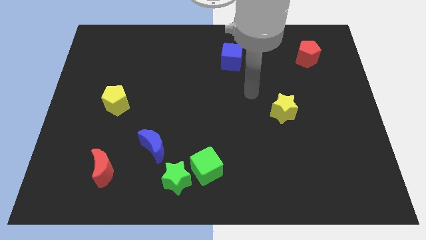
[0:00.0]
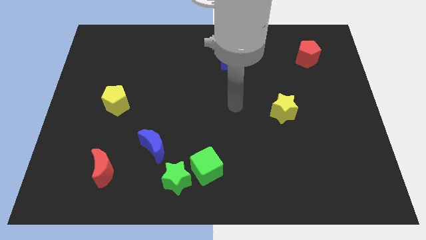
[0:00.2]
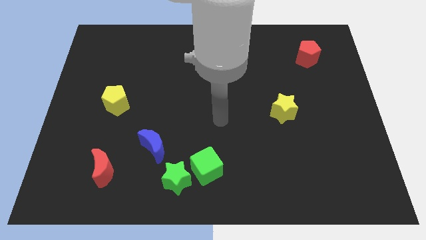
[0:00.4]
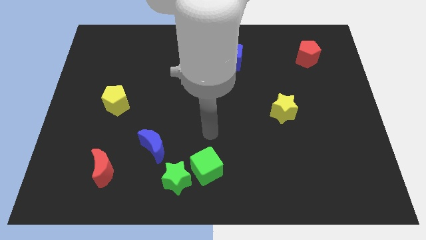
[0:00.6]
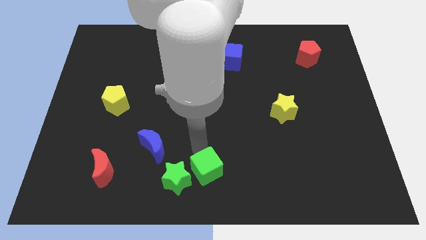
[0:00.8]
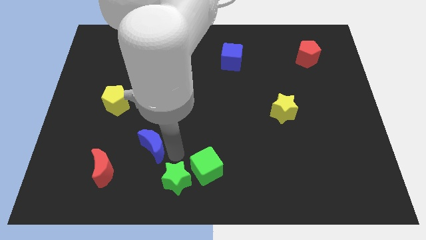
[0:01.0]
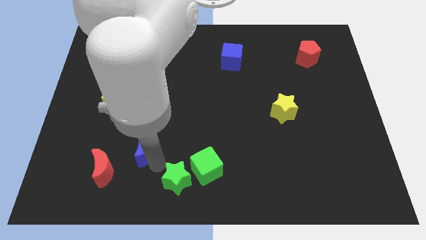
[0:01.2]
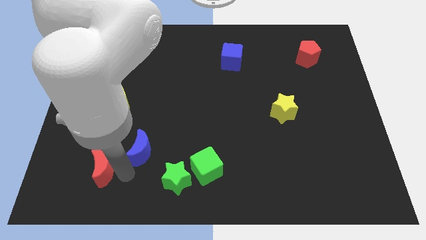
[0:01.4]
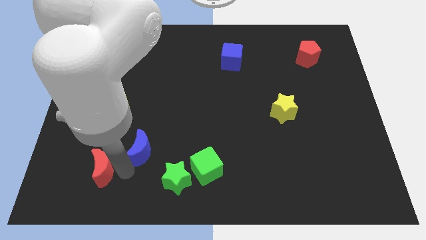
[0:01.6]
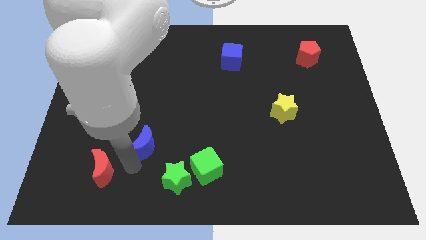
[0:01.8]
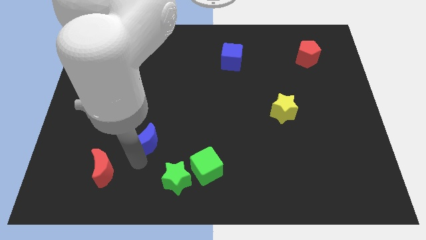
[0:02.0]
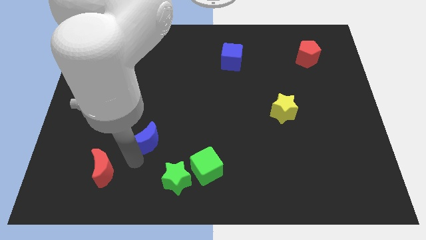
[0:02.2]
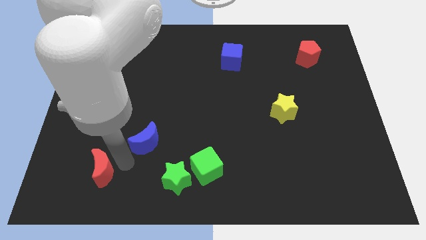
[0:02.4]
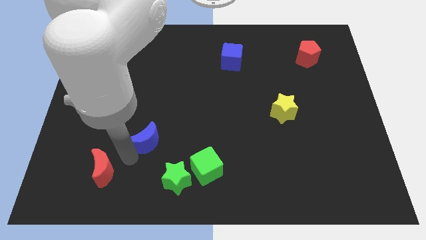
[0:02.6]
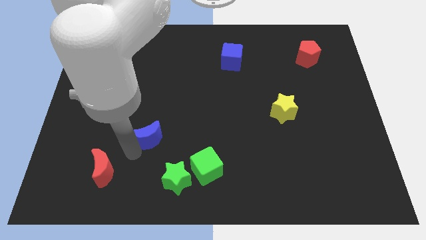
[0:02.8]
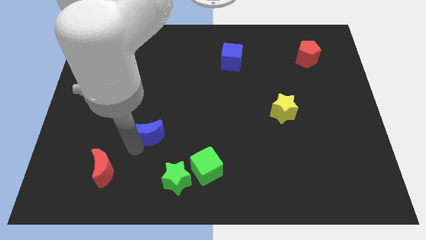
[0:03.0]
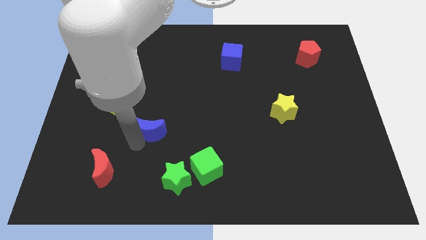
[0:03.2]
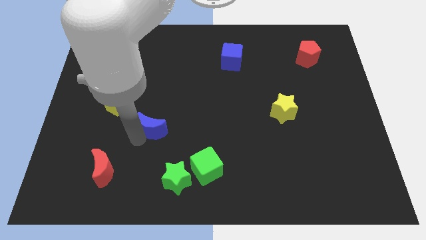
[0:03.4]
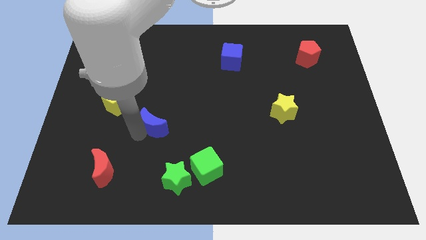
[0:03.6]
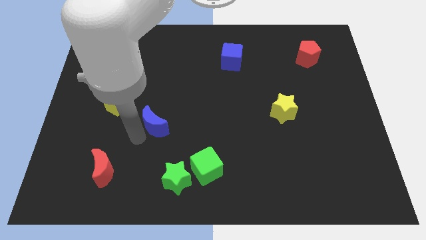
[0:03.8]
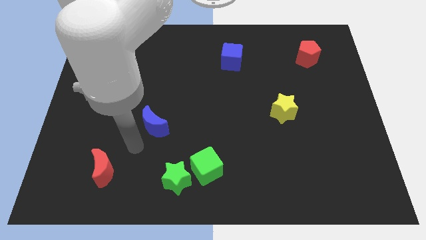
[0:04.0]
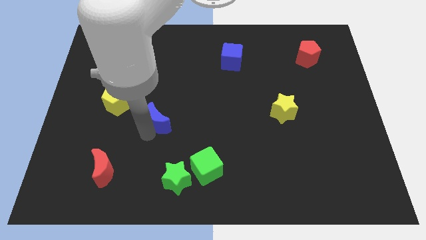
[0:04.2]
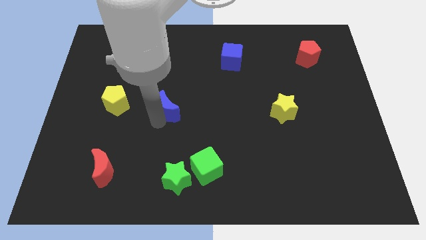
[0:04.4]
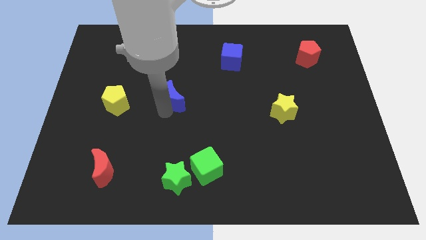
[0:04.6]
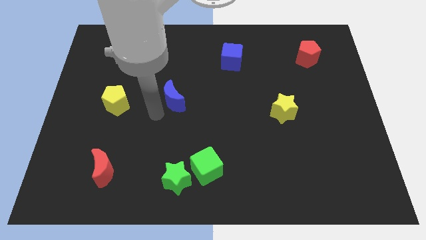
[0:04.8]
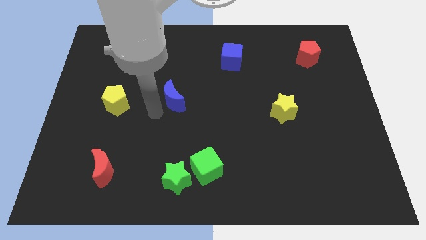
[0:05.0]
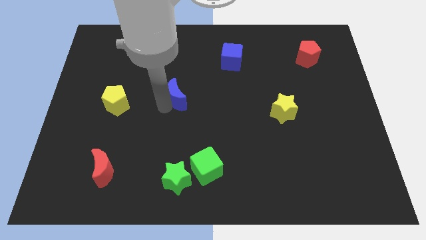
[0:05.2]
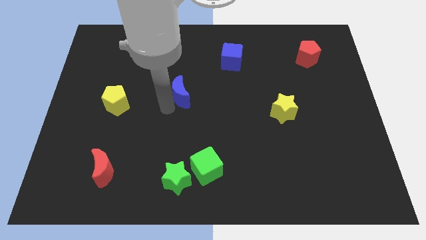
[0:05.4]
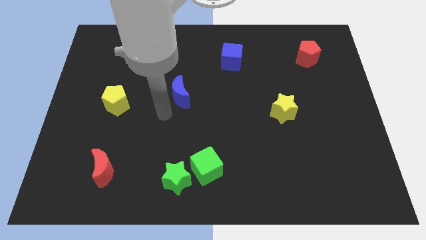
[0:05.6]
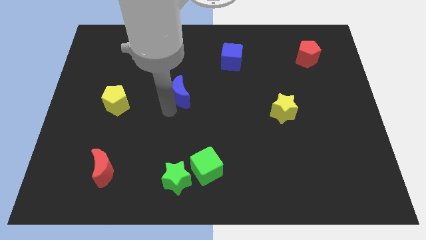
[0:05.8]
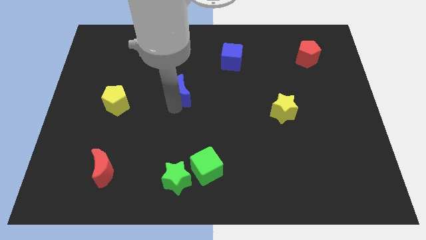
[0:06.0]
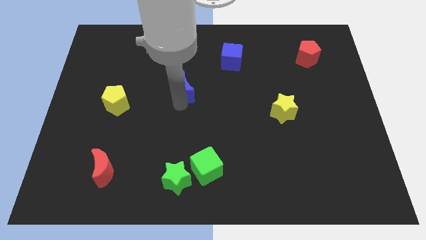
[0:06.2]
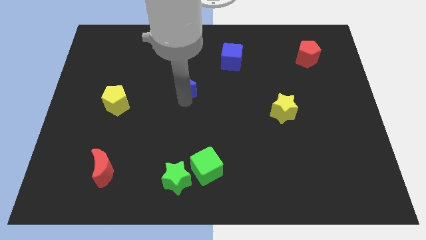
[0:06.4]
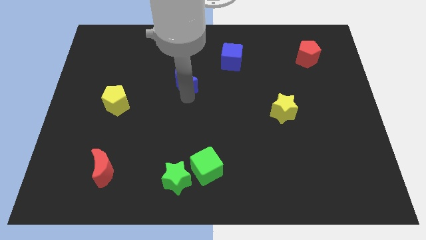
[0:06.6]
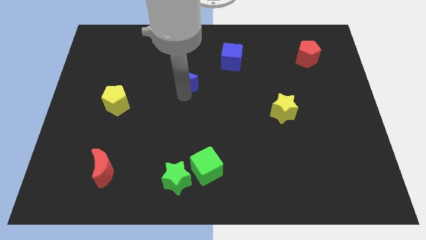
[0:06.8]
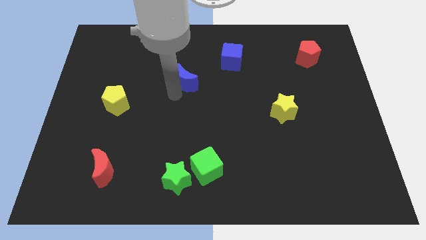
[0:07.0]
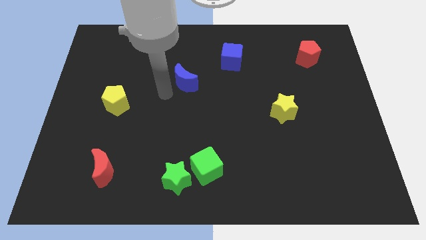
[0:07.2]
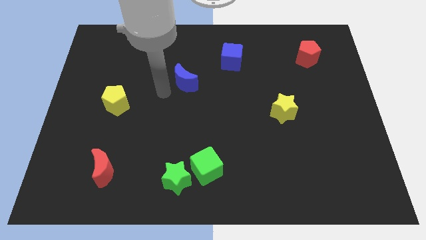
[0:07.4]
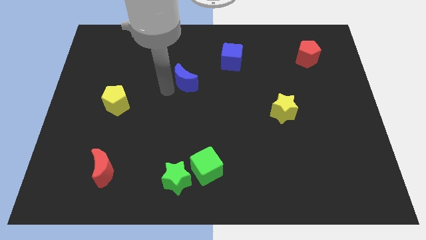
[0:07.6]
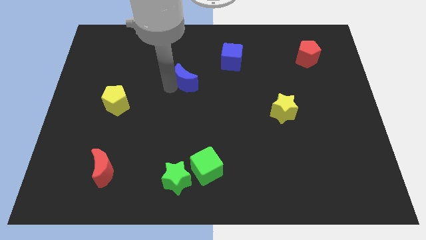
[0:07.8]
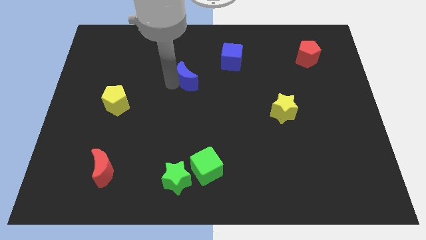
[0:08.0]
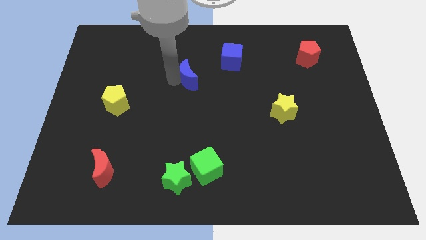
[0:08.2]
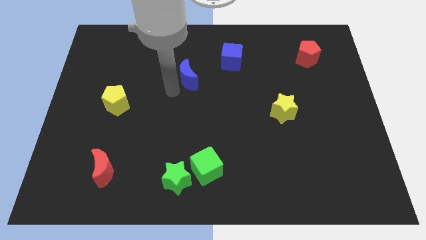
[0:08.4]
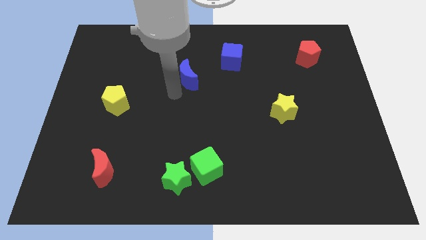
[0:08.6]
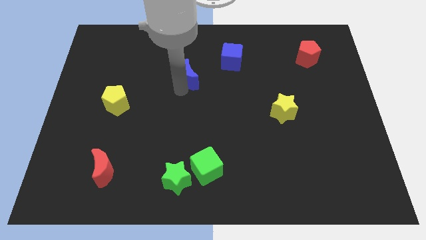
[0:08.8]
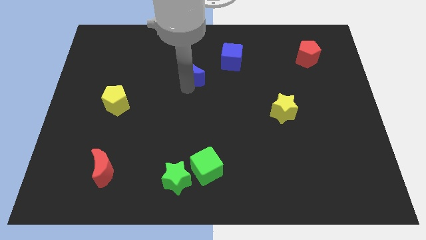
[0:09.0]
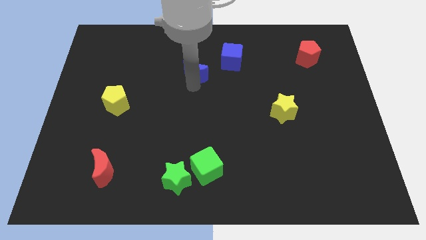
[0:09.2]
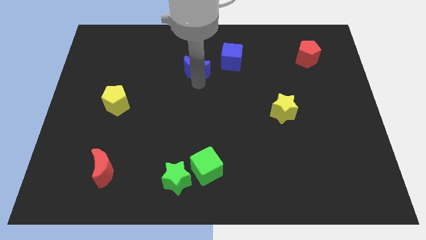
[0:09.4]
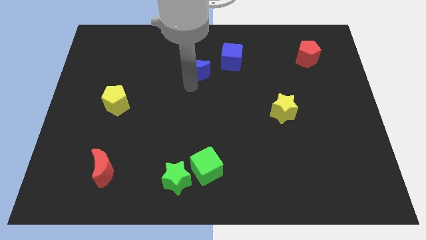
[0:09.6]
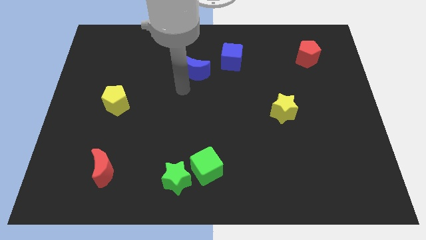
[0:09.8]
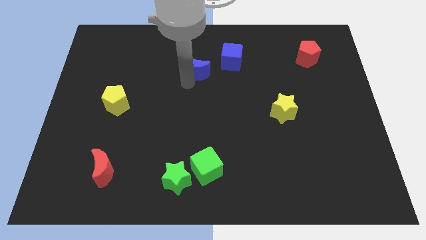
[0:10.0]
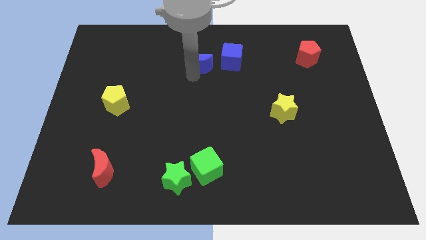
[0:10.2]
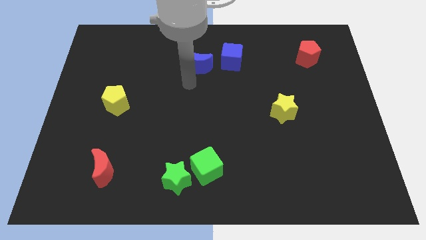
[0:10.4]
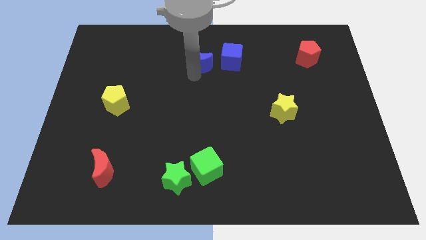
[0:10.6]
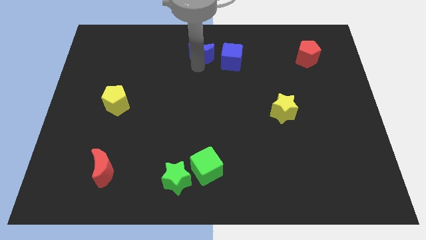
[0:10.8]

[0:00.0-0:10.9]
push the blue moon to the towards your base

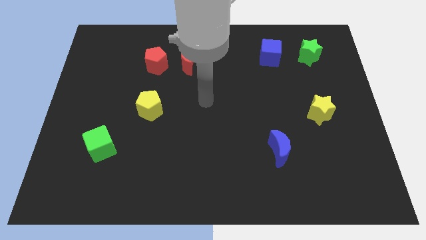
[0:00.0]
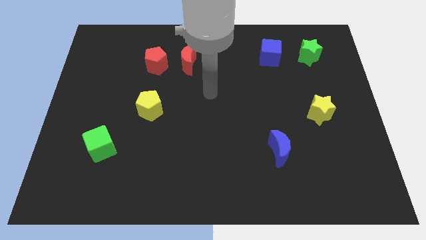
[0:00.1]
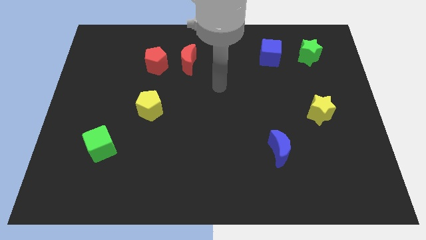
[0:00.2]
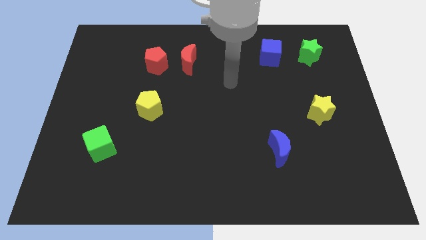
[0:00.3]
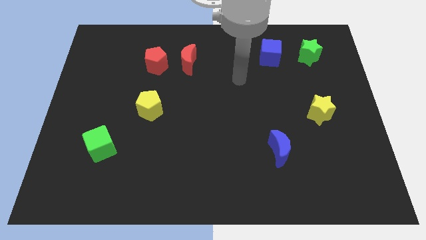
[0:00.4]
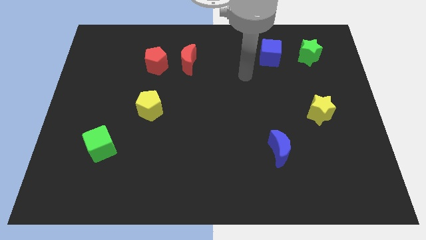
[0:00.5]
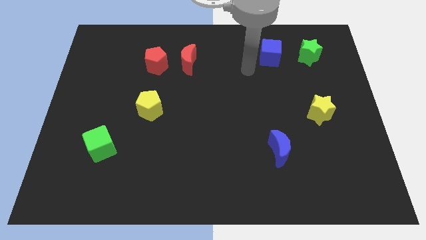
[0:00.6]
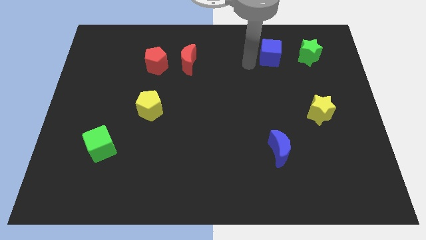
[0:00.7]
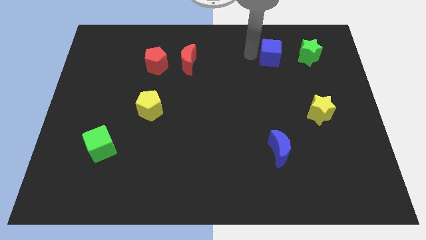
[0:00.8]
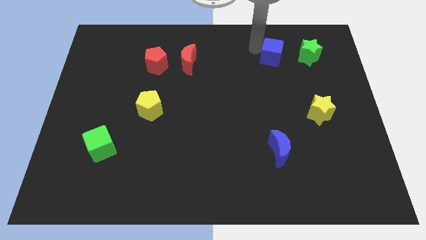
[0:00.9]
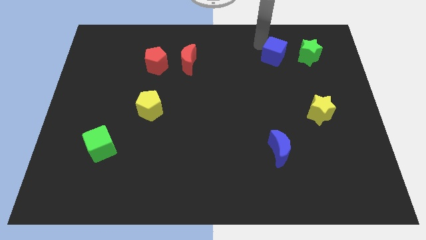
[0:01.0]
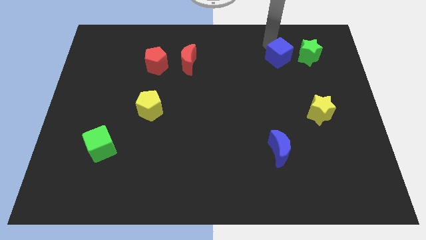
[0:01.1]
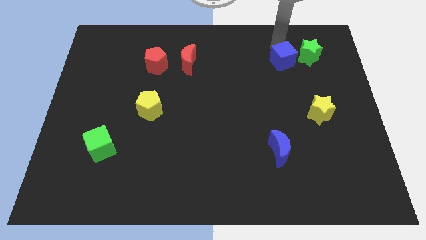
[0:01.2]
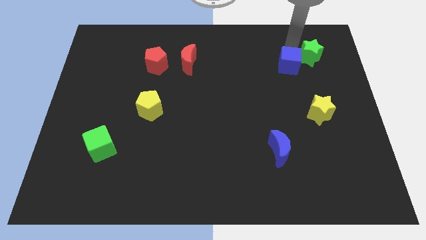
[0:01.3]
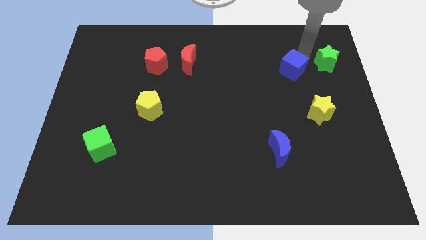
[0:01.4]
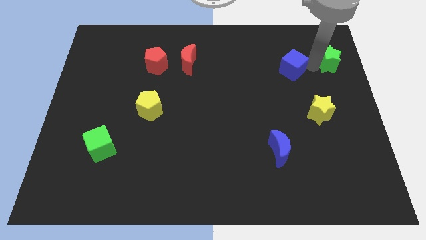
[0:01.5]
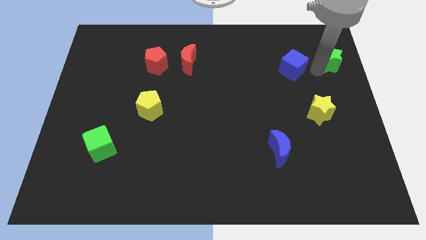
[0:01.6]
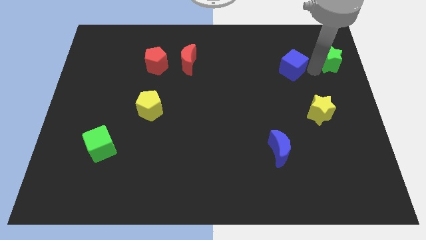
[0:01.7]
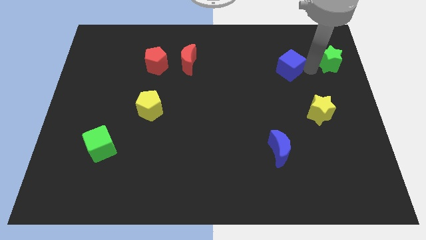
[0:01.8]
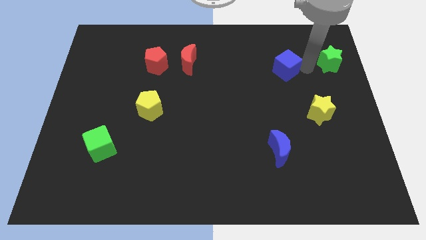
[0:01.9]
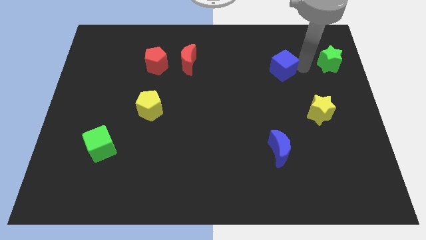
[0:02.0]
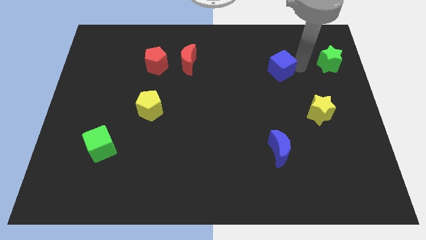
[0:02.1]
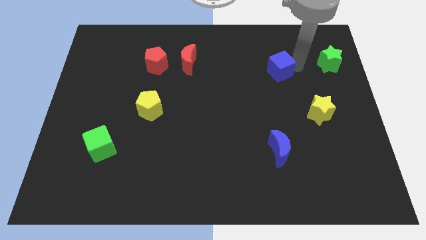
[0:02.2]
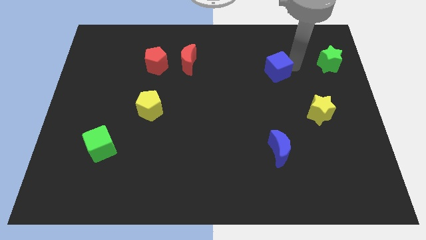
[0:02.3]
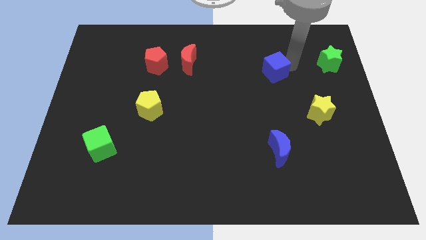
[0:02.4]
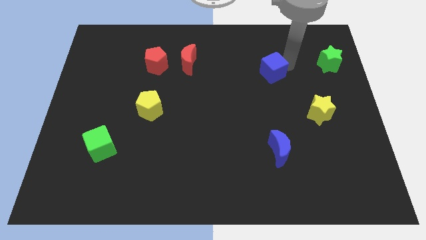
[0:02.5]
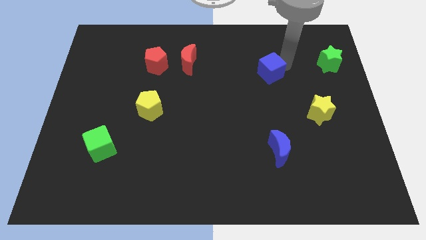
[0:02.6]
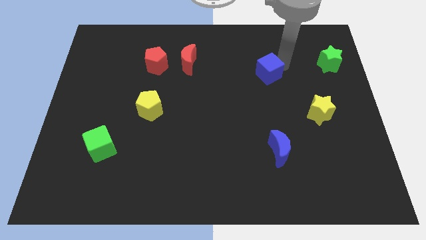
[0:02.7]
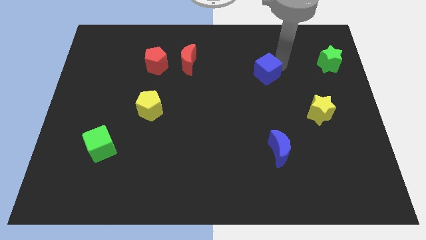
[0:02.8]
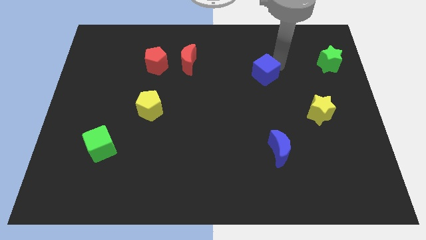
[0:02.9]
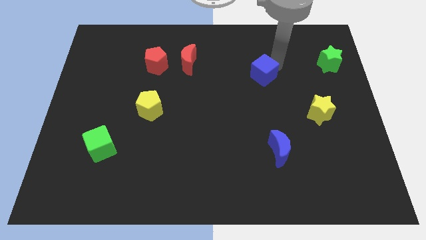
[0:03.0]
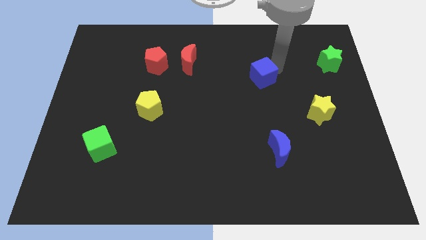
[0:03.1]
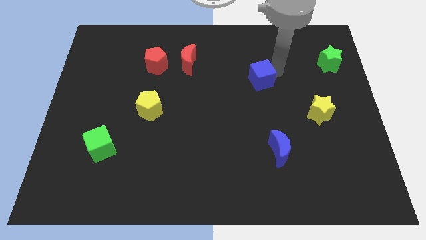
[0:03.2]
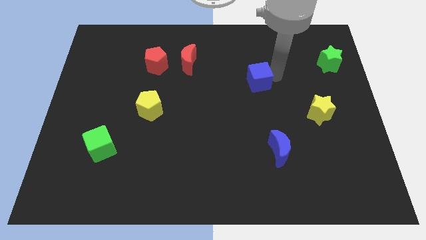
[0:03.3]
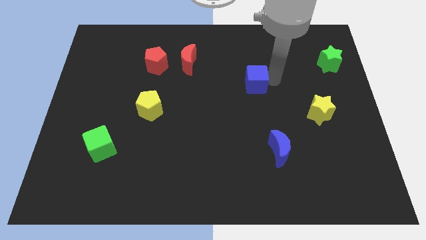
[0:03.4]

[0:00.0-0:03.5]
push the blue cube to the middle of the board
